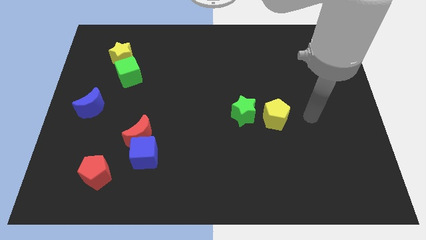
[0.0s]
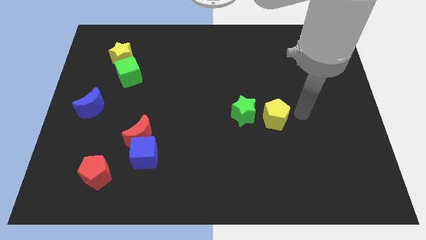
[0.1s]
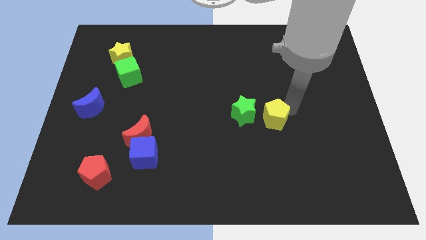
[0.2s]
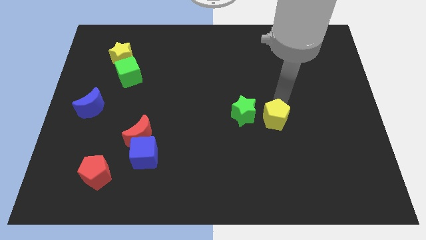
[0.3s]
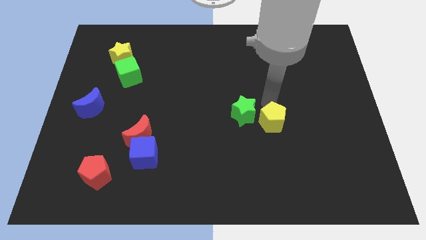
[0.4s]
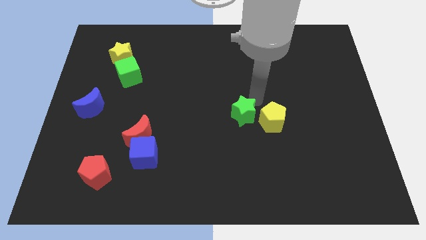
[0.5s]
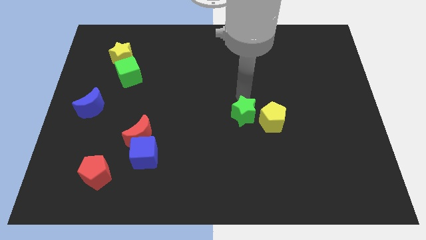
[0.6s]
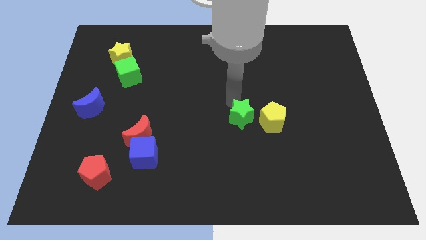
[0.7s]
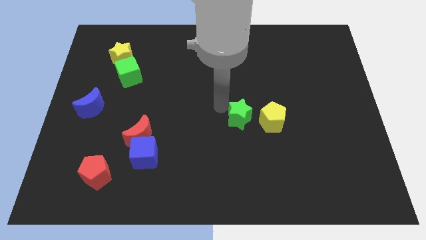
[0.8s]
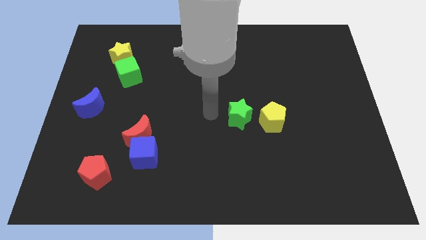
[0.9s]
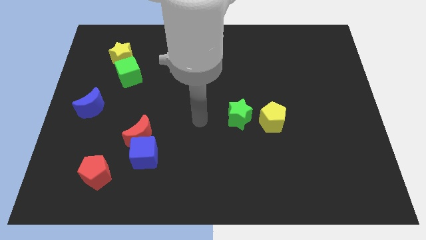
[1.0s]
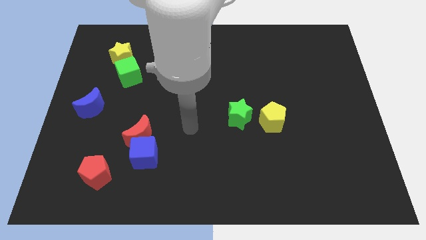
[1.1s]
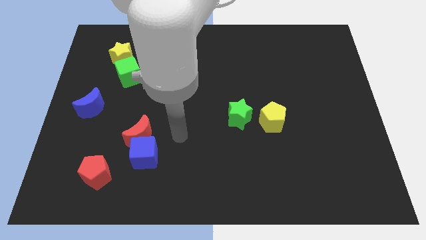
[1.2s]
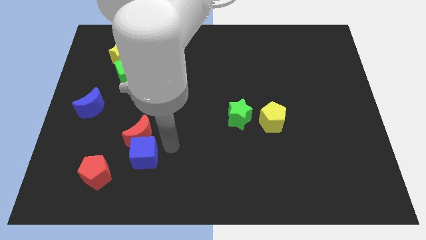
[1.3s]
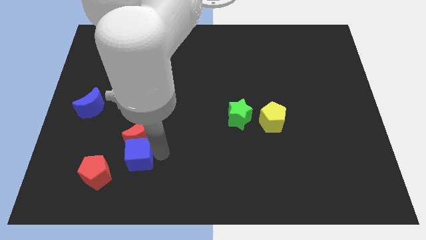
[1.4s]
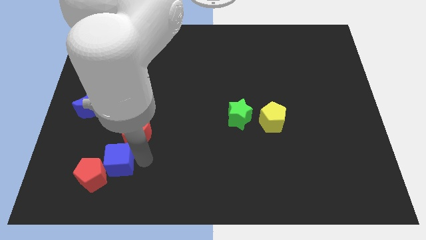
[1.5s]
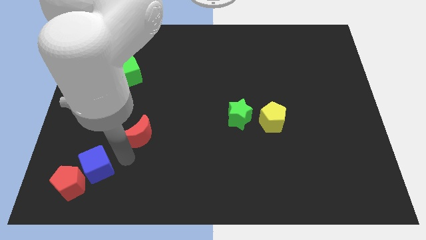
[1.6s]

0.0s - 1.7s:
move the red moon away from the blue cube

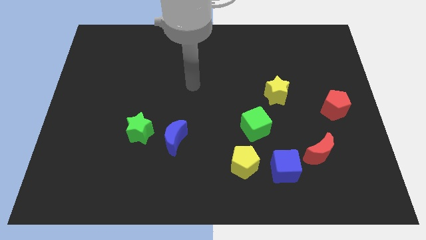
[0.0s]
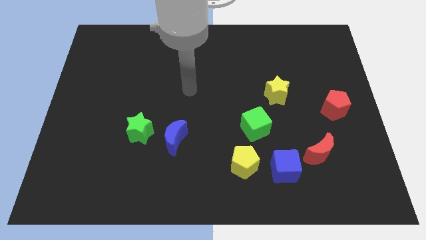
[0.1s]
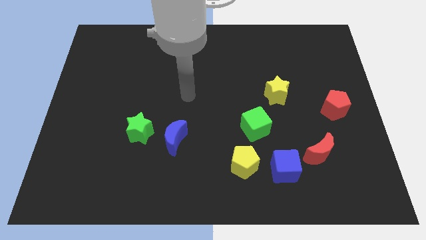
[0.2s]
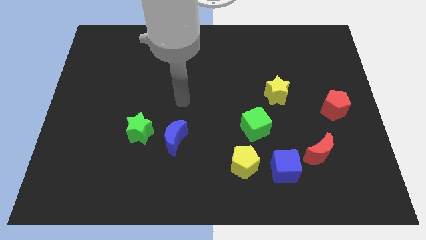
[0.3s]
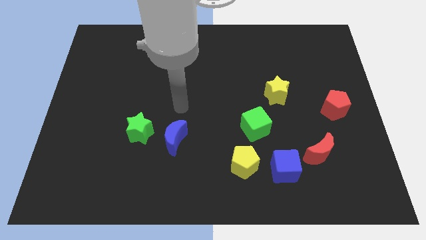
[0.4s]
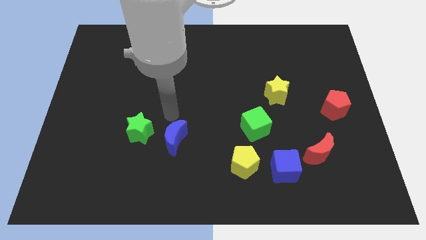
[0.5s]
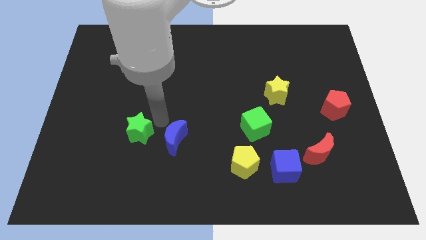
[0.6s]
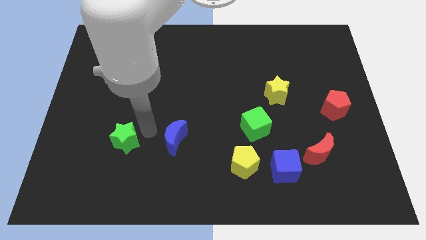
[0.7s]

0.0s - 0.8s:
move the blue moon away from the green star

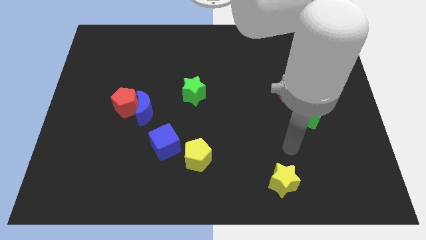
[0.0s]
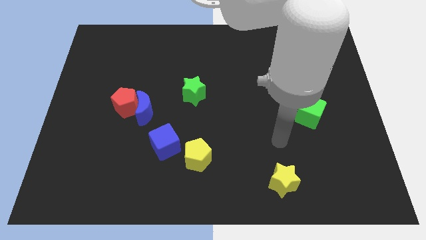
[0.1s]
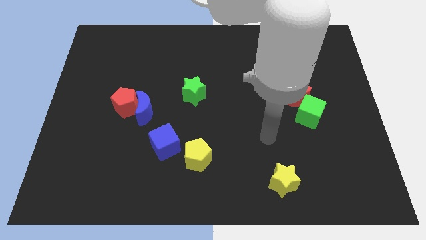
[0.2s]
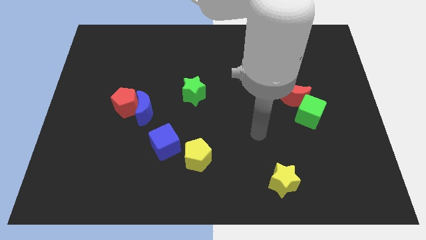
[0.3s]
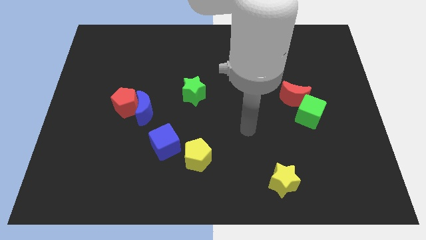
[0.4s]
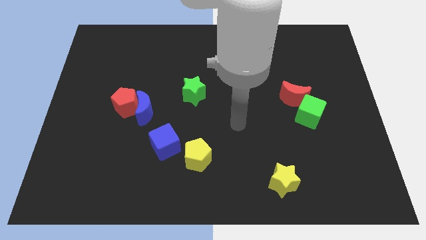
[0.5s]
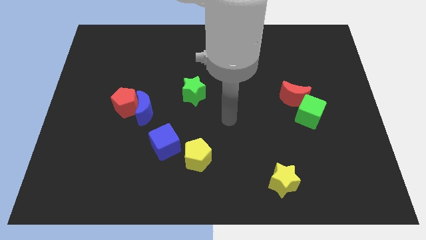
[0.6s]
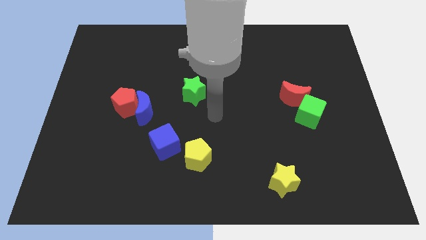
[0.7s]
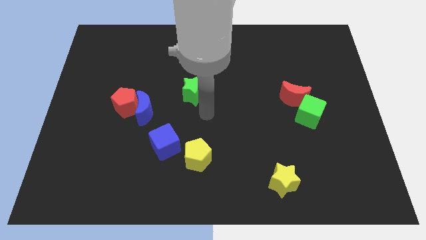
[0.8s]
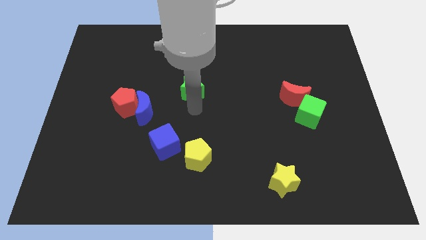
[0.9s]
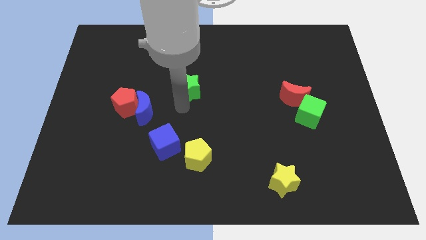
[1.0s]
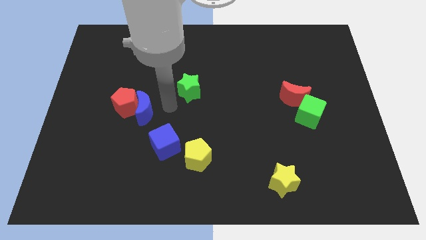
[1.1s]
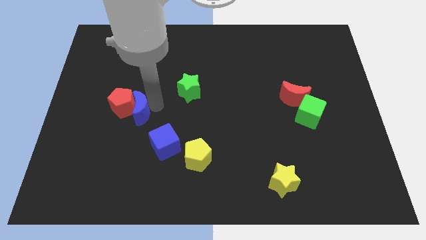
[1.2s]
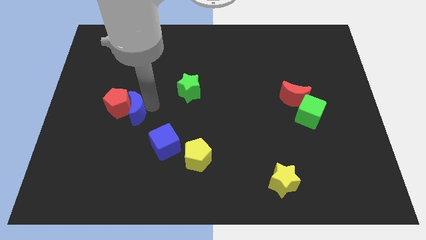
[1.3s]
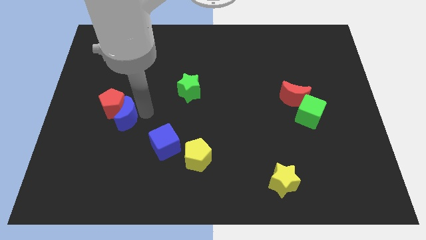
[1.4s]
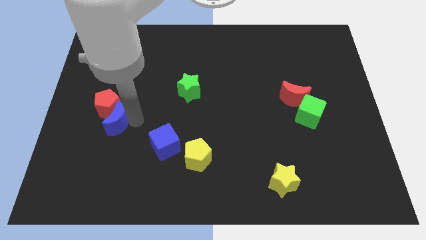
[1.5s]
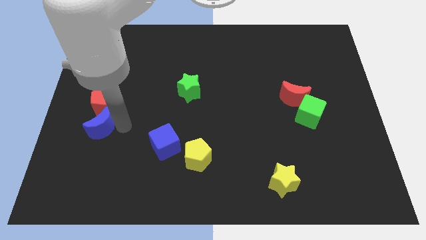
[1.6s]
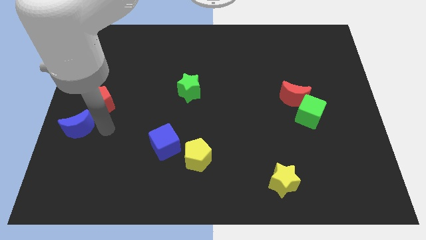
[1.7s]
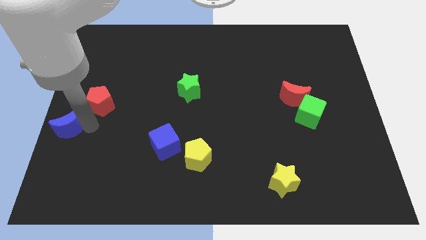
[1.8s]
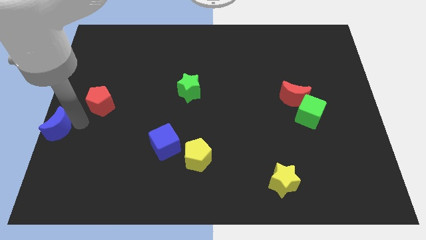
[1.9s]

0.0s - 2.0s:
pull the red pentagon apart from the blue moon

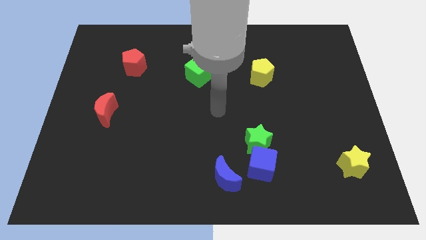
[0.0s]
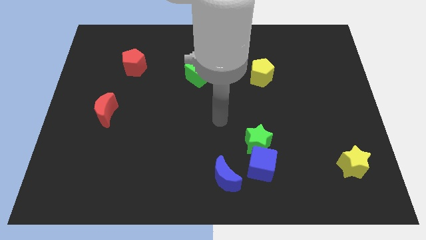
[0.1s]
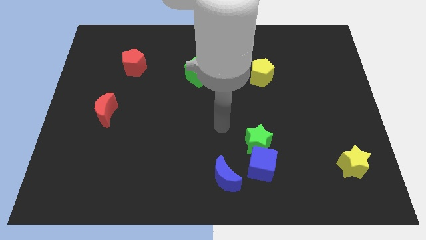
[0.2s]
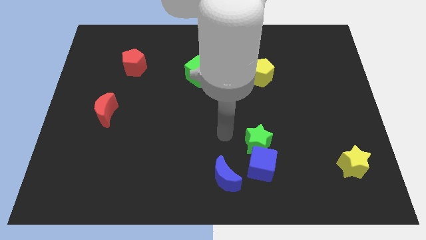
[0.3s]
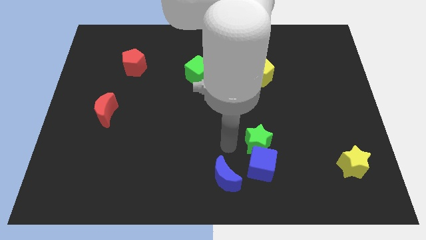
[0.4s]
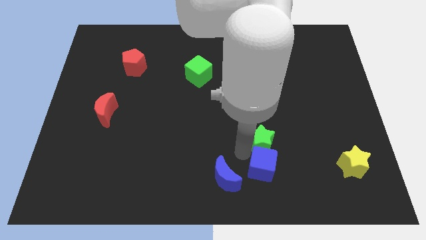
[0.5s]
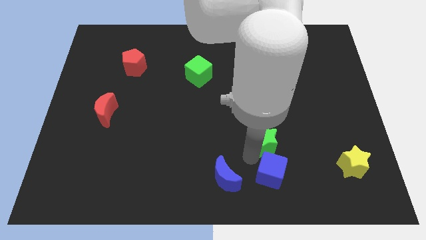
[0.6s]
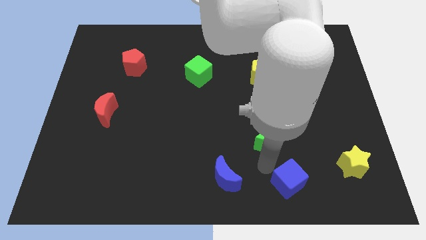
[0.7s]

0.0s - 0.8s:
separate the green star from the blue cube

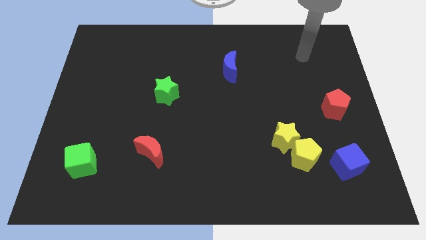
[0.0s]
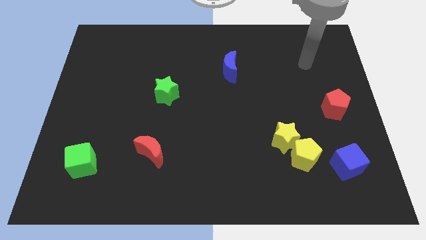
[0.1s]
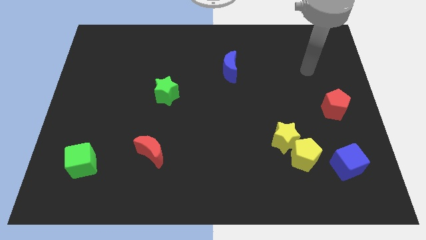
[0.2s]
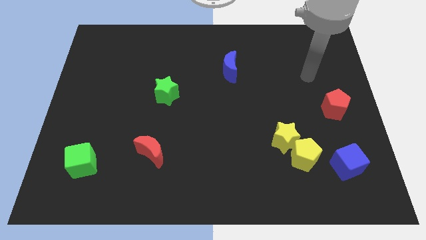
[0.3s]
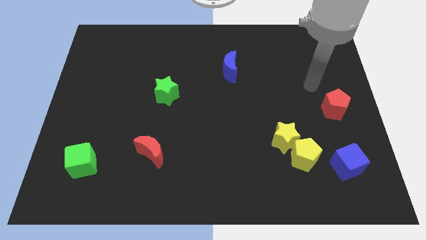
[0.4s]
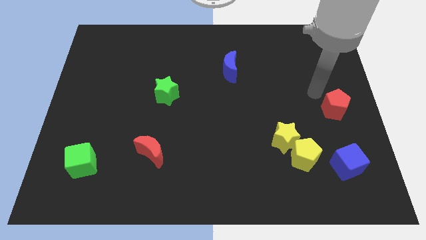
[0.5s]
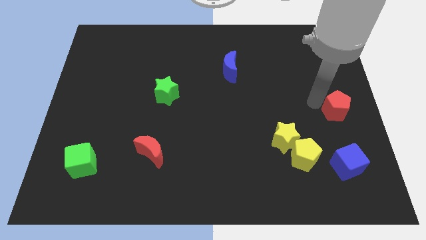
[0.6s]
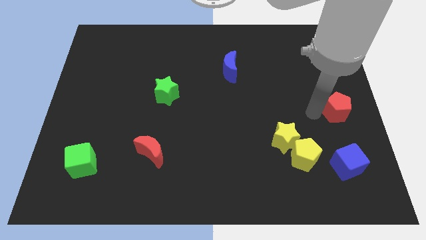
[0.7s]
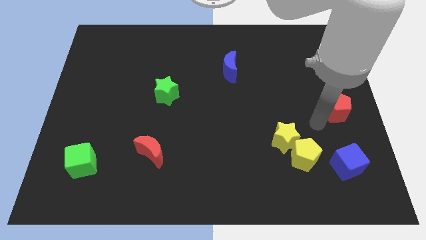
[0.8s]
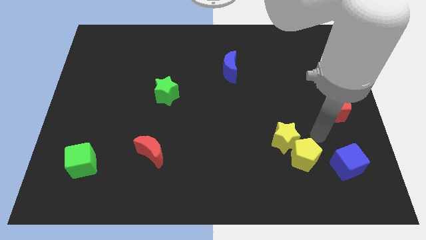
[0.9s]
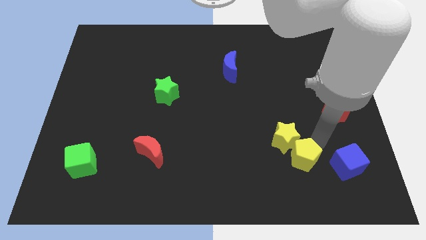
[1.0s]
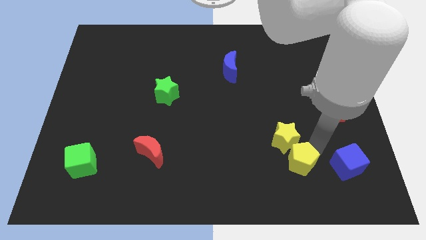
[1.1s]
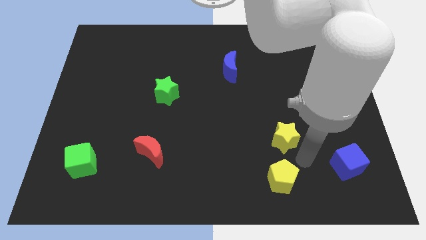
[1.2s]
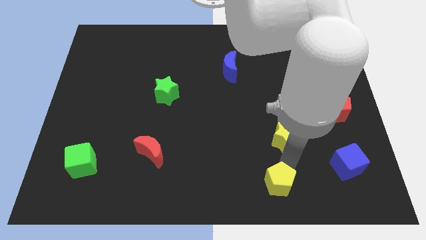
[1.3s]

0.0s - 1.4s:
pull the yellow star apart from the yellow pentagon

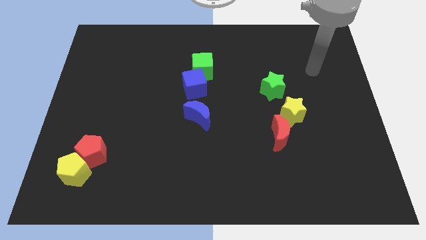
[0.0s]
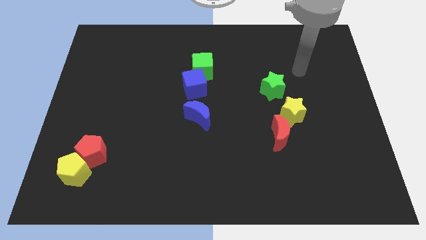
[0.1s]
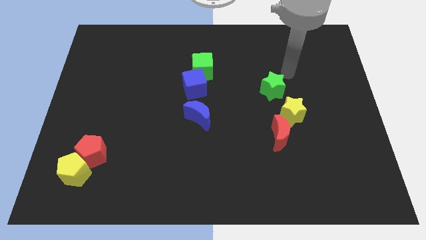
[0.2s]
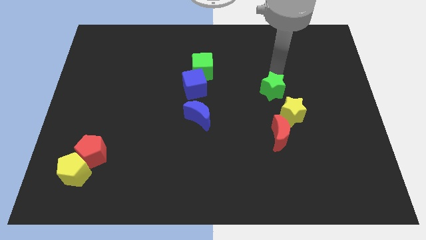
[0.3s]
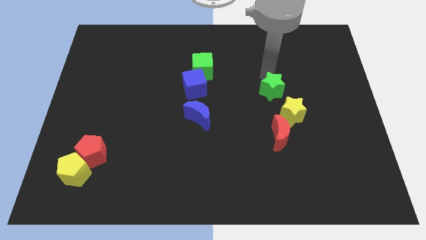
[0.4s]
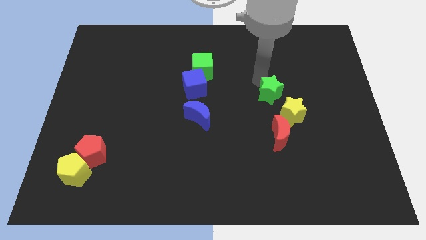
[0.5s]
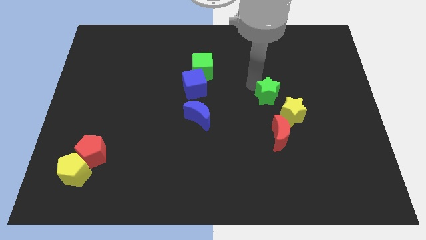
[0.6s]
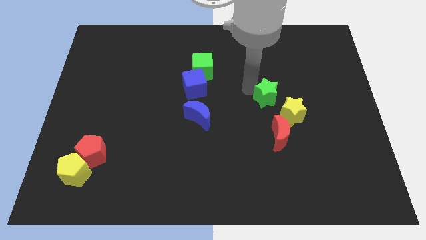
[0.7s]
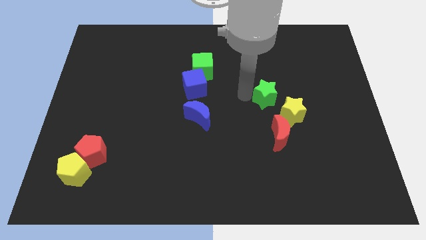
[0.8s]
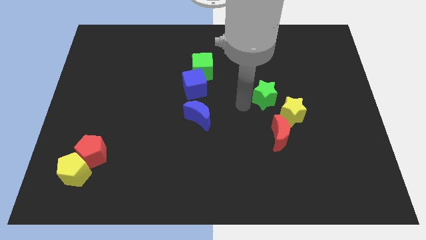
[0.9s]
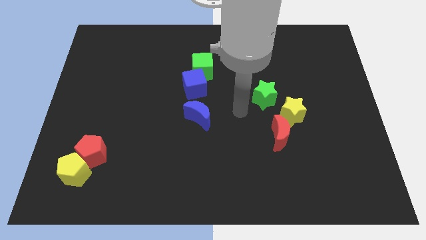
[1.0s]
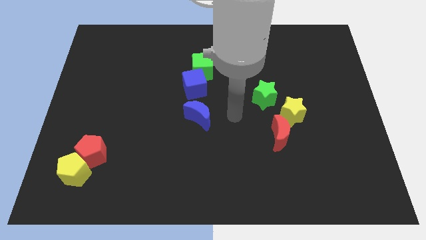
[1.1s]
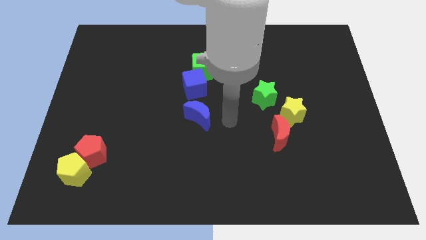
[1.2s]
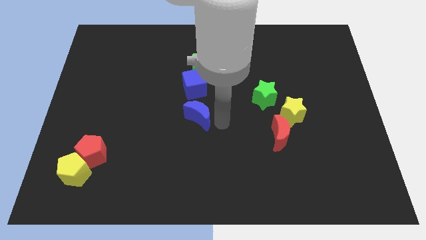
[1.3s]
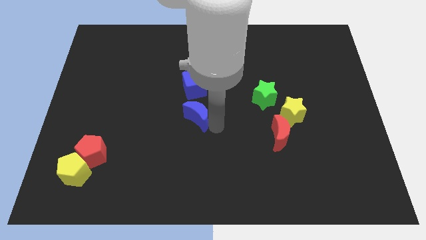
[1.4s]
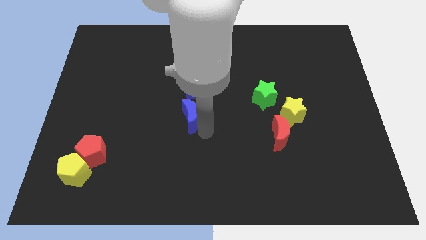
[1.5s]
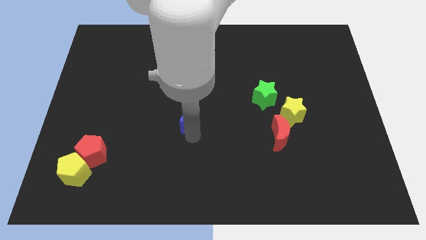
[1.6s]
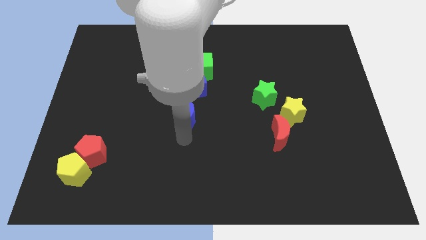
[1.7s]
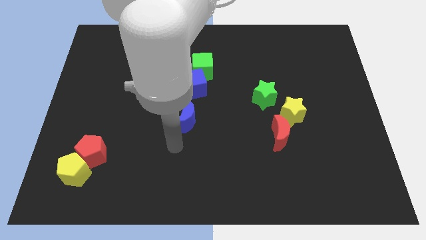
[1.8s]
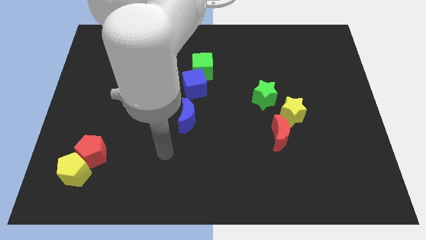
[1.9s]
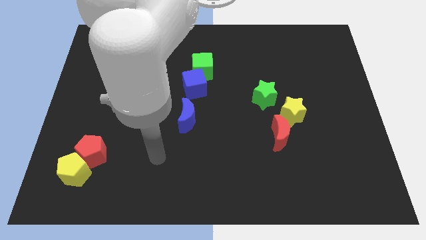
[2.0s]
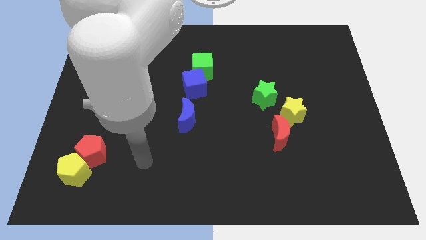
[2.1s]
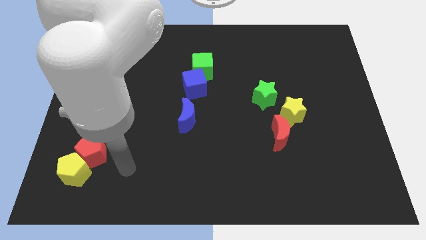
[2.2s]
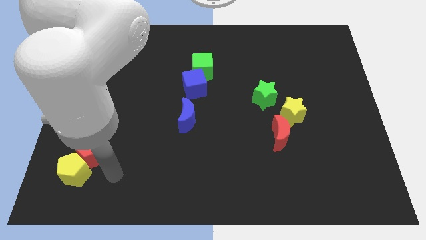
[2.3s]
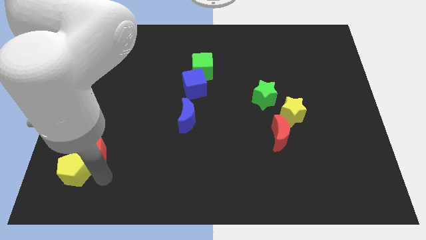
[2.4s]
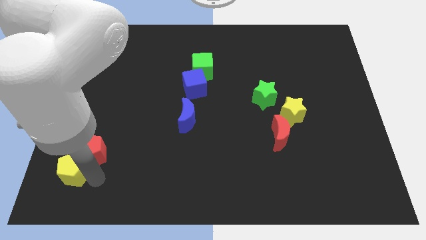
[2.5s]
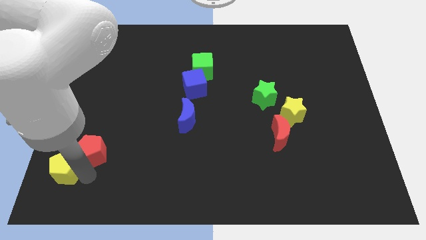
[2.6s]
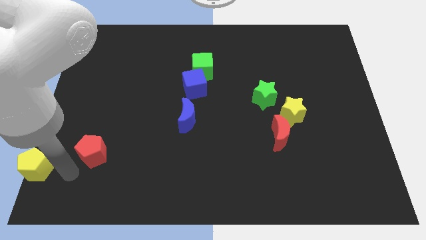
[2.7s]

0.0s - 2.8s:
pull the red pentagon apart from the yellow pentagon
